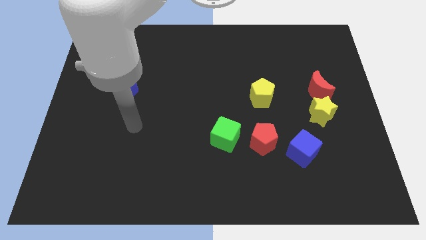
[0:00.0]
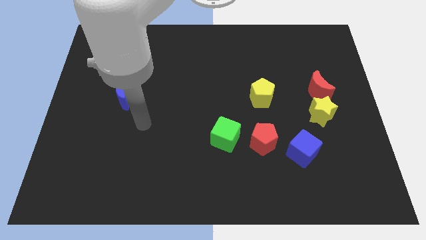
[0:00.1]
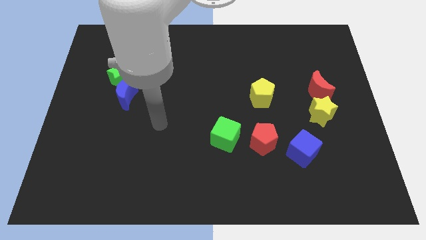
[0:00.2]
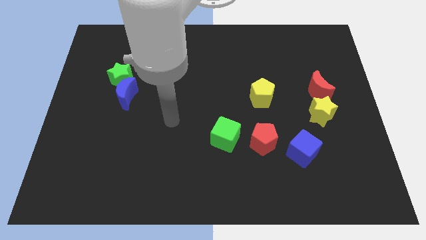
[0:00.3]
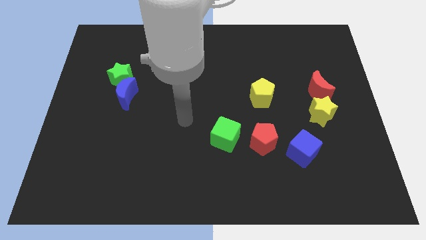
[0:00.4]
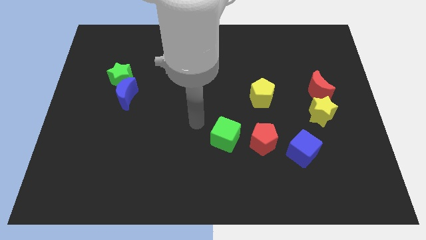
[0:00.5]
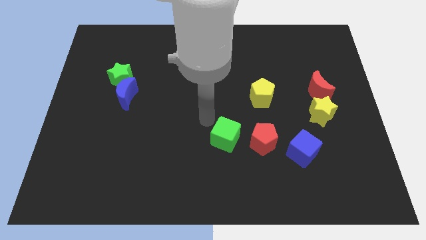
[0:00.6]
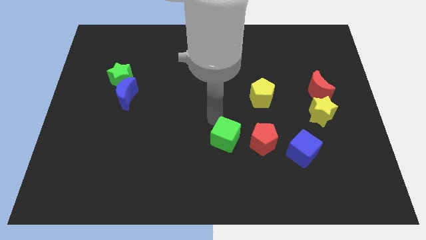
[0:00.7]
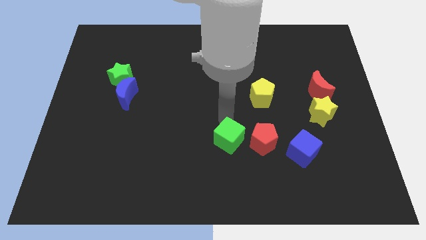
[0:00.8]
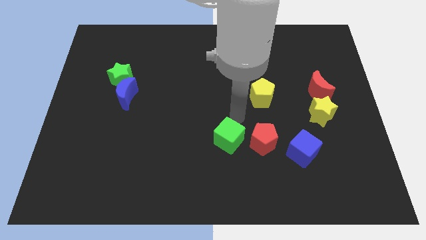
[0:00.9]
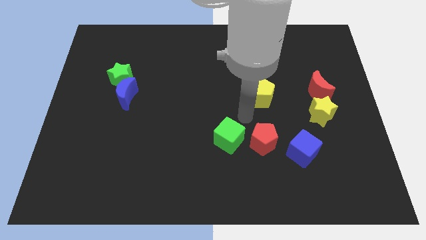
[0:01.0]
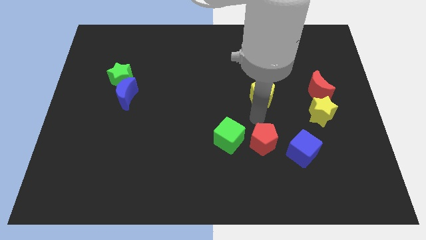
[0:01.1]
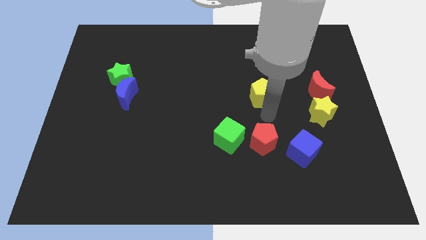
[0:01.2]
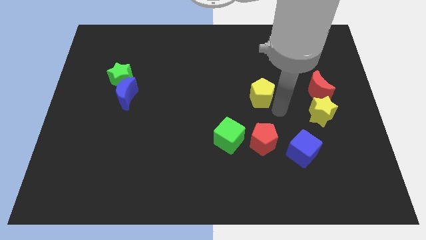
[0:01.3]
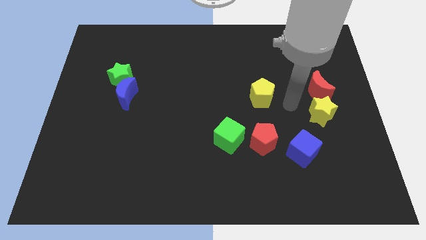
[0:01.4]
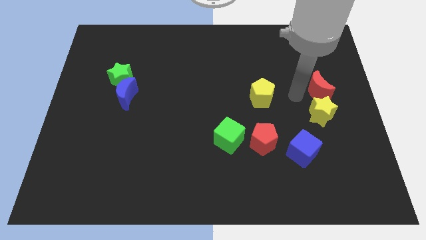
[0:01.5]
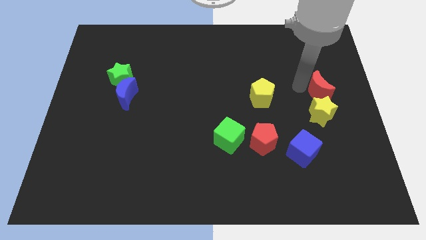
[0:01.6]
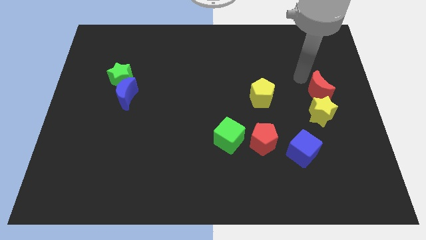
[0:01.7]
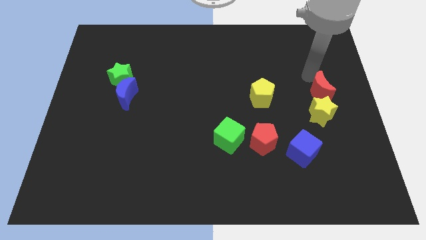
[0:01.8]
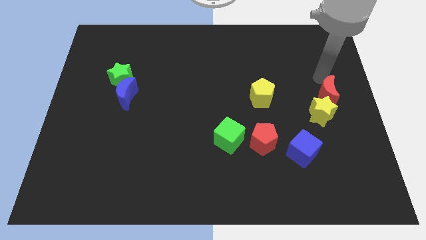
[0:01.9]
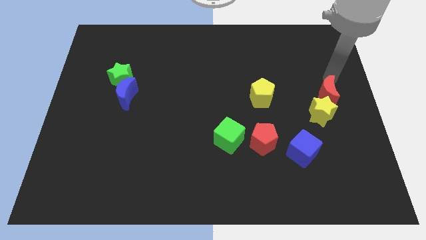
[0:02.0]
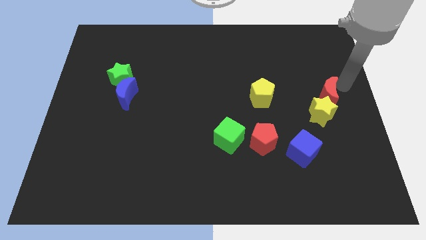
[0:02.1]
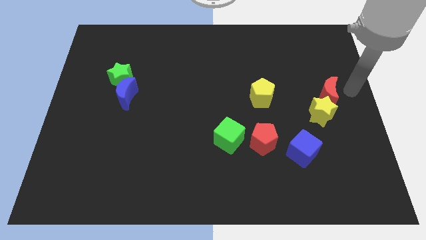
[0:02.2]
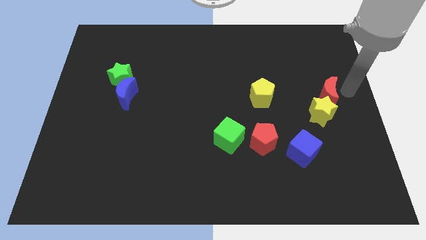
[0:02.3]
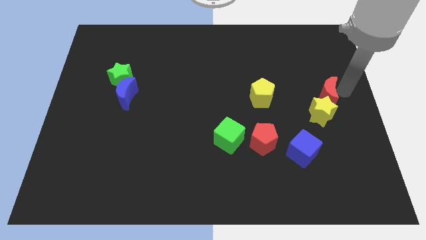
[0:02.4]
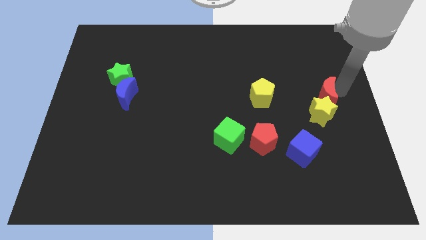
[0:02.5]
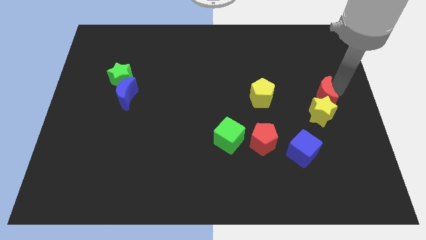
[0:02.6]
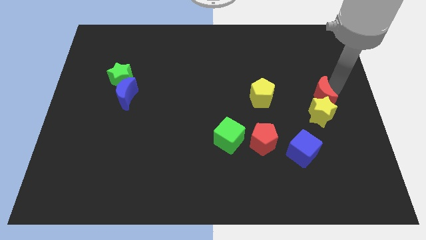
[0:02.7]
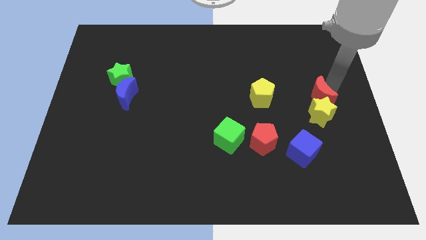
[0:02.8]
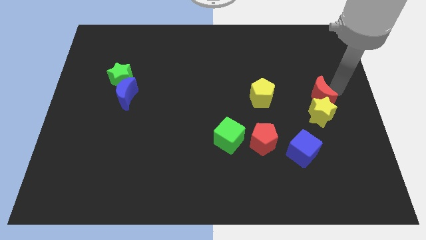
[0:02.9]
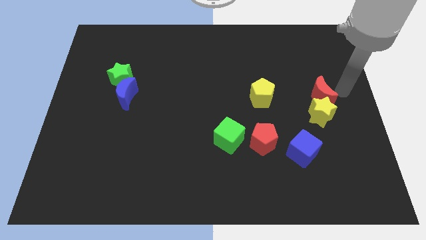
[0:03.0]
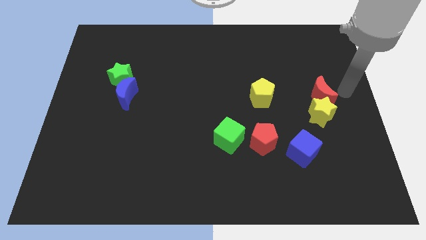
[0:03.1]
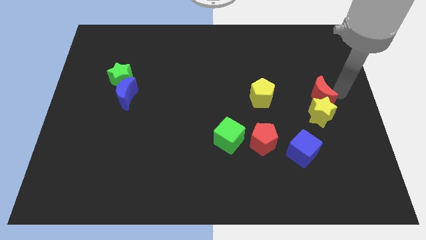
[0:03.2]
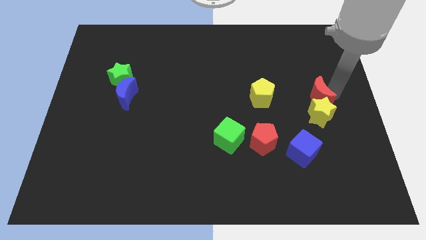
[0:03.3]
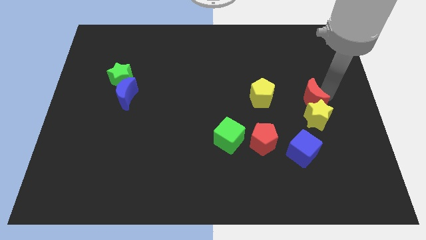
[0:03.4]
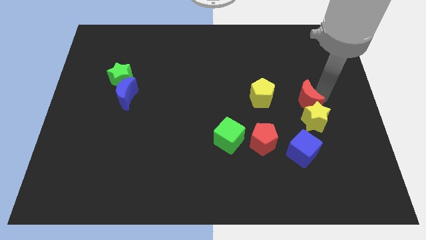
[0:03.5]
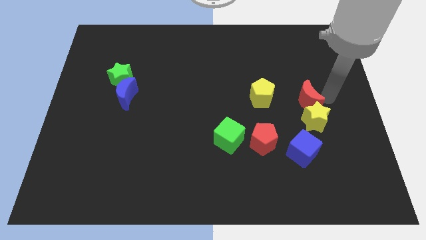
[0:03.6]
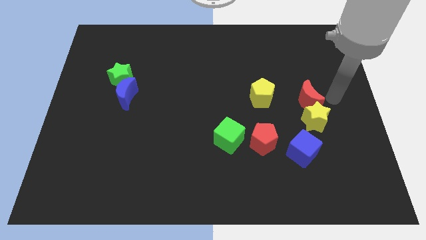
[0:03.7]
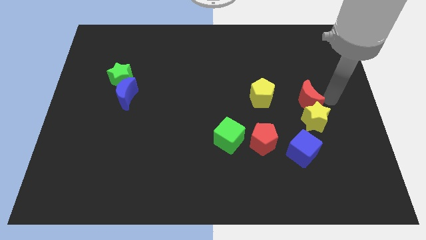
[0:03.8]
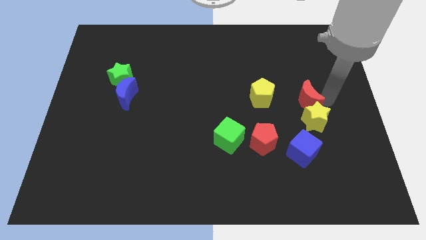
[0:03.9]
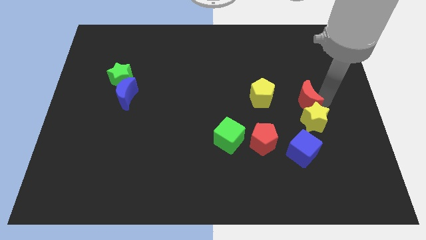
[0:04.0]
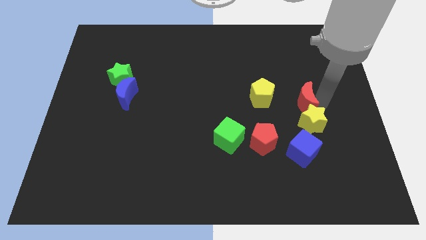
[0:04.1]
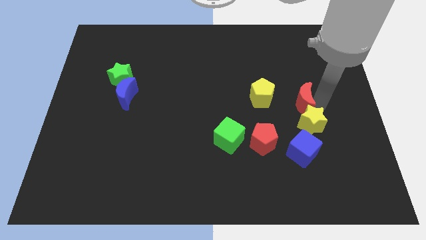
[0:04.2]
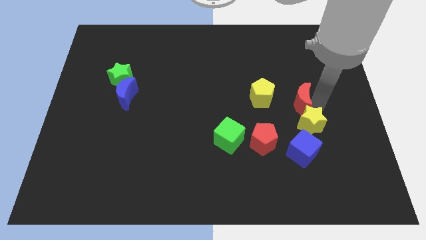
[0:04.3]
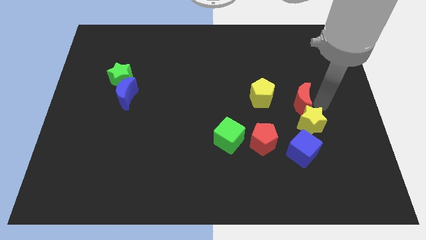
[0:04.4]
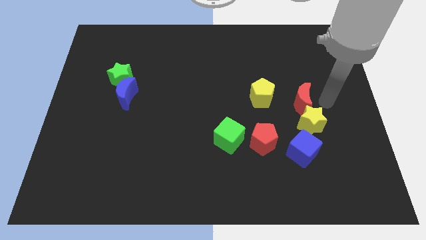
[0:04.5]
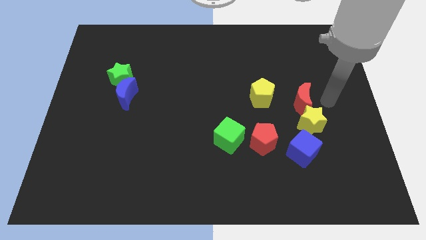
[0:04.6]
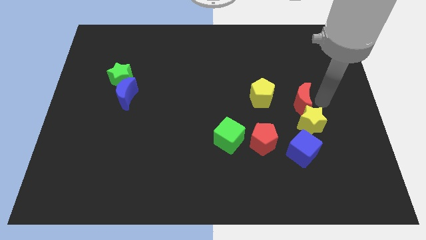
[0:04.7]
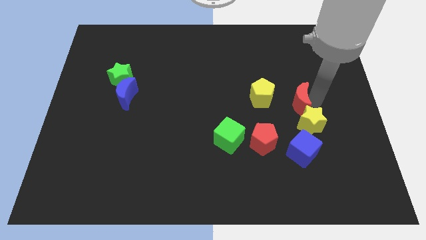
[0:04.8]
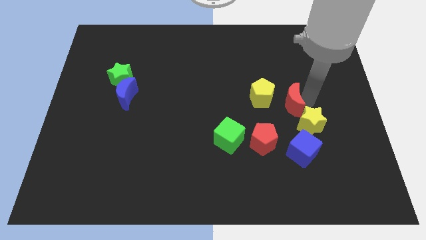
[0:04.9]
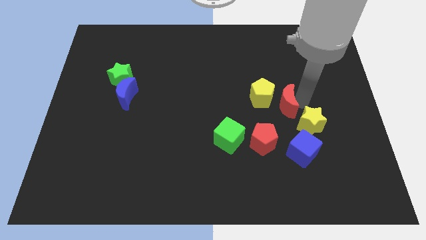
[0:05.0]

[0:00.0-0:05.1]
slide the red moon to the yellow pentagon

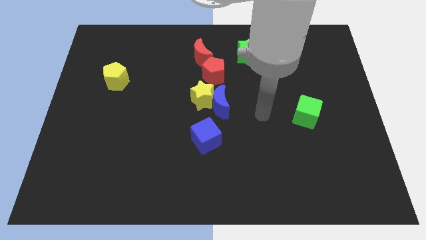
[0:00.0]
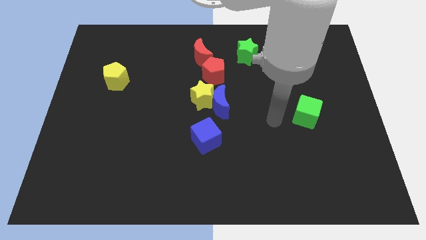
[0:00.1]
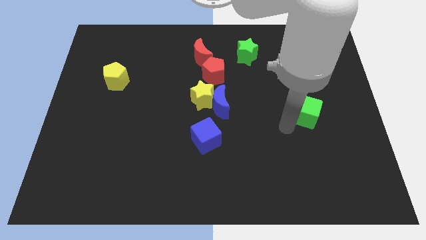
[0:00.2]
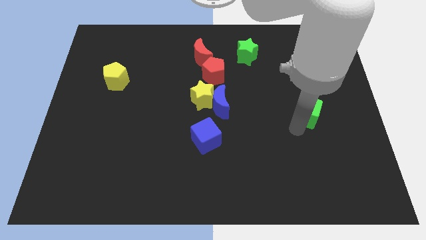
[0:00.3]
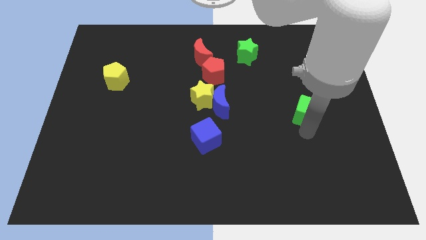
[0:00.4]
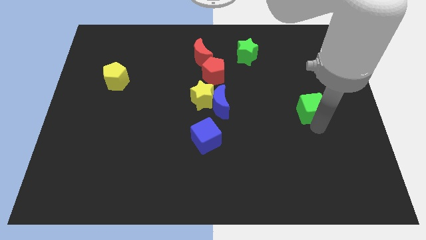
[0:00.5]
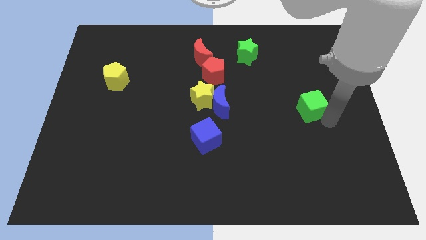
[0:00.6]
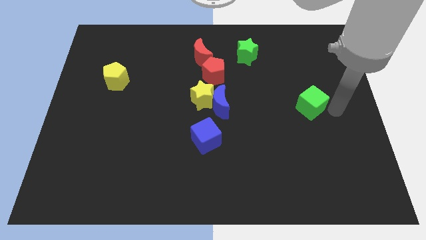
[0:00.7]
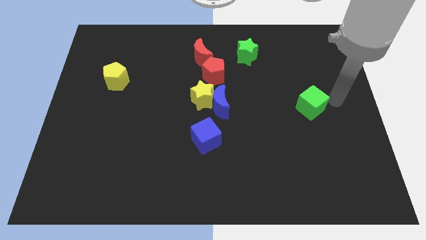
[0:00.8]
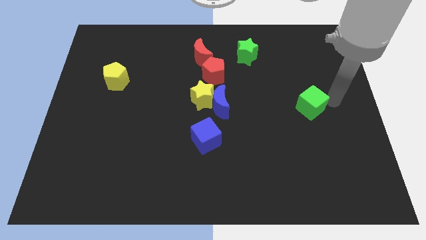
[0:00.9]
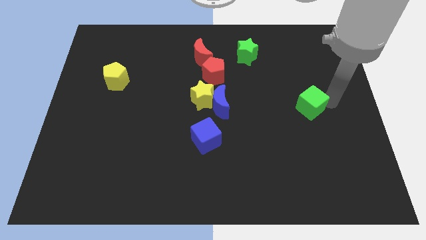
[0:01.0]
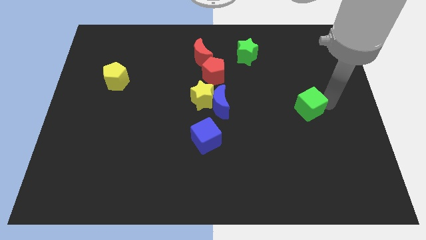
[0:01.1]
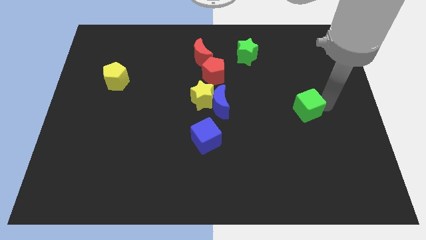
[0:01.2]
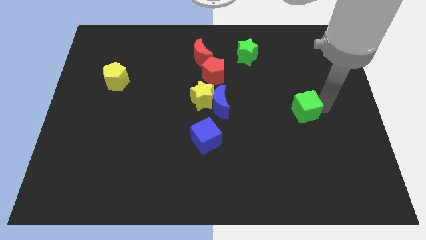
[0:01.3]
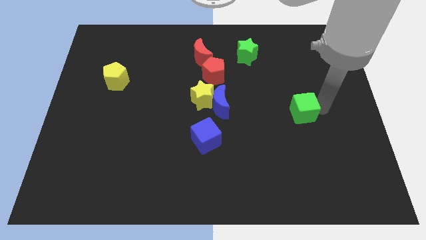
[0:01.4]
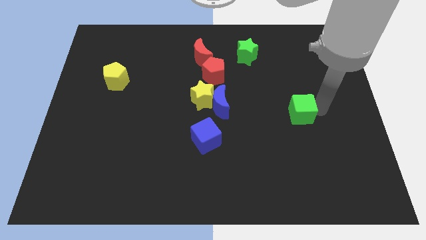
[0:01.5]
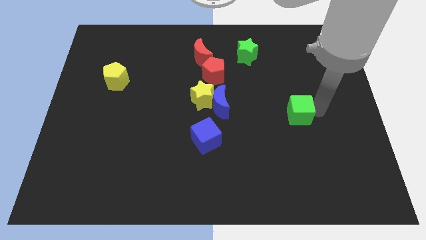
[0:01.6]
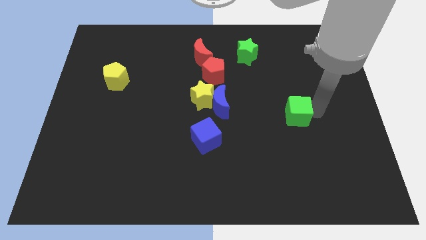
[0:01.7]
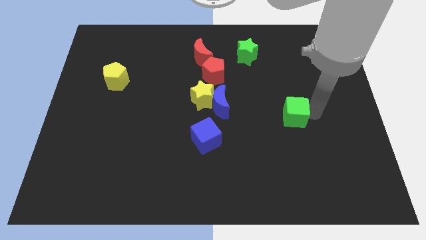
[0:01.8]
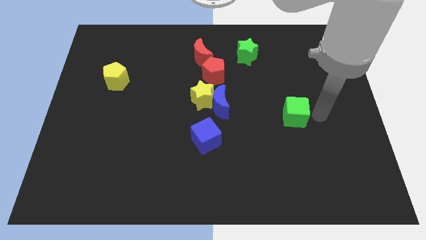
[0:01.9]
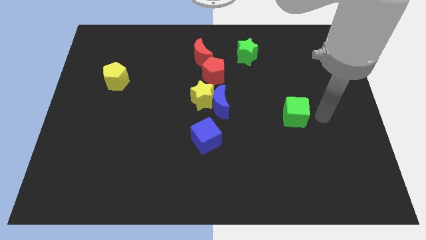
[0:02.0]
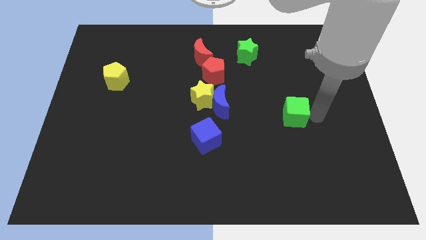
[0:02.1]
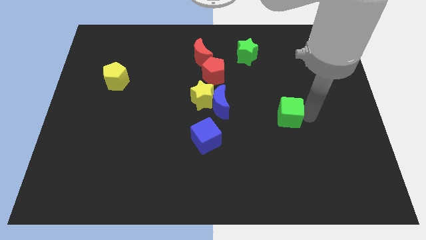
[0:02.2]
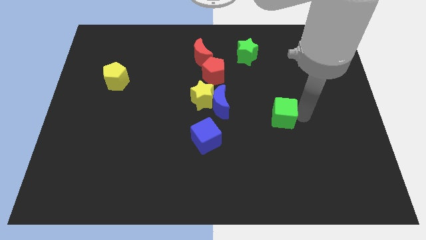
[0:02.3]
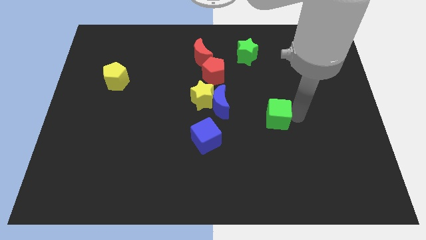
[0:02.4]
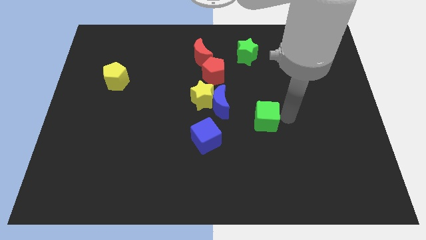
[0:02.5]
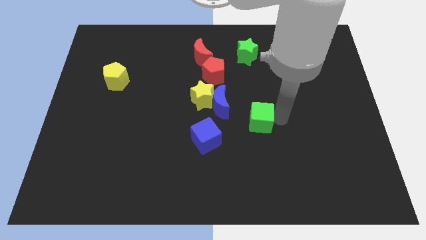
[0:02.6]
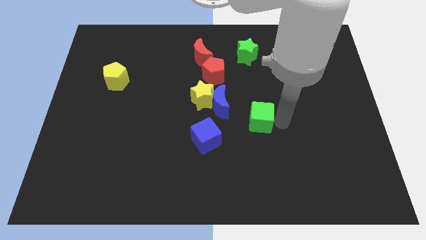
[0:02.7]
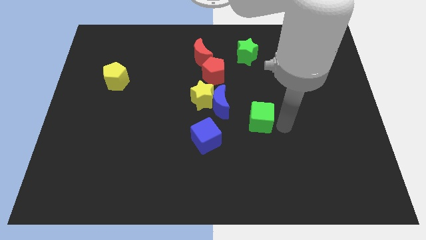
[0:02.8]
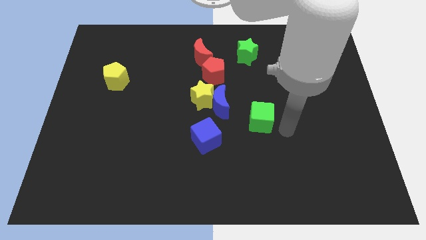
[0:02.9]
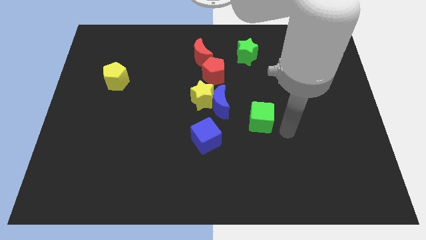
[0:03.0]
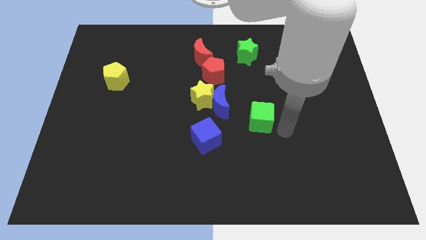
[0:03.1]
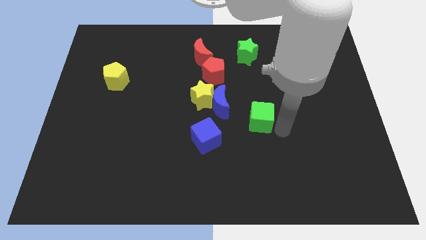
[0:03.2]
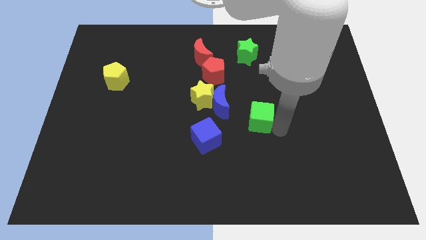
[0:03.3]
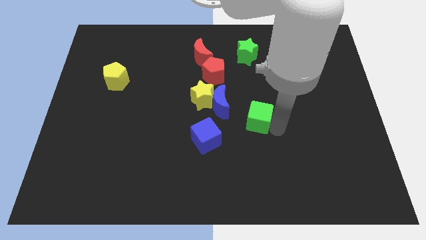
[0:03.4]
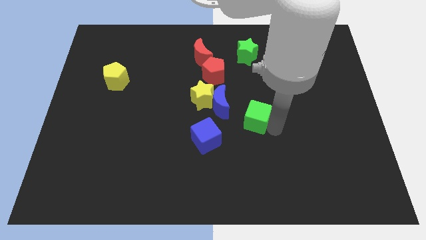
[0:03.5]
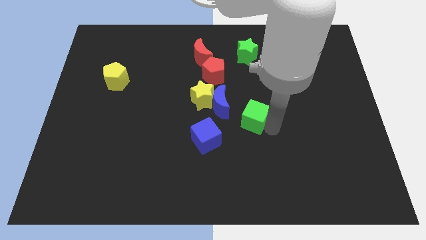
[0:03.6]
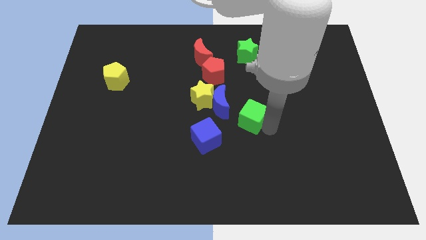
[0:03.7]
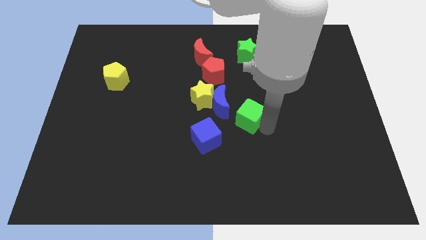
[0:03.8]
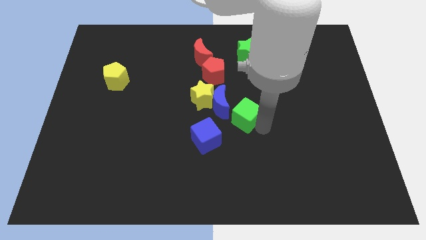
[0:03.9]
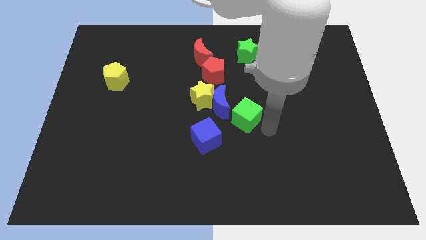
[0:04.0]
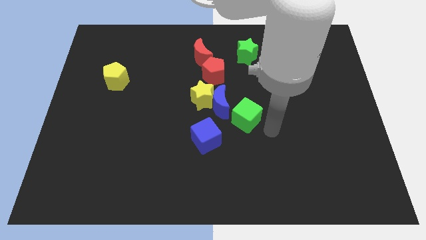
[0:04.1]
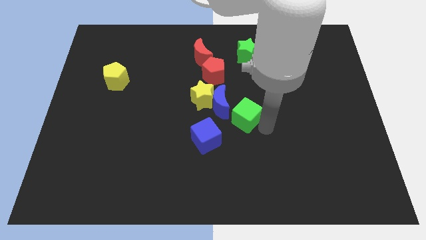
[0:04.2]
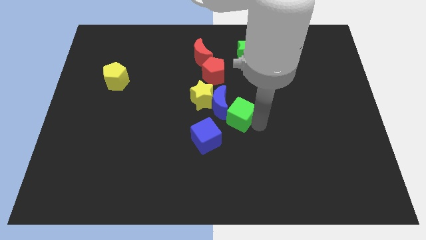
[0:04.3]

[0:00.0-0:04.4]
move the green cube close to the blue moon
